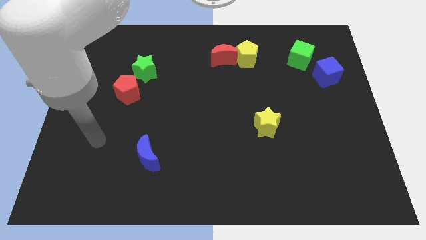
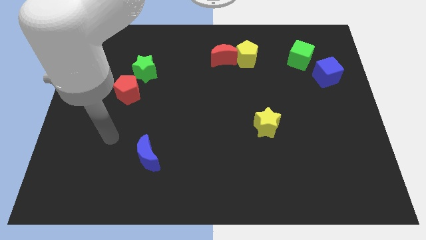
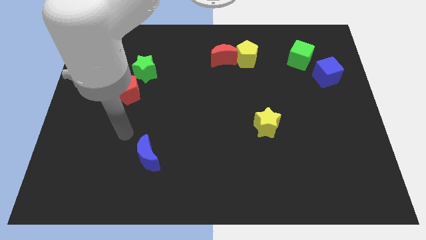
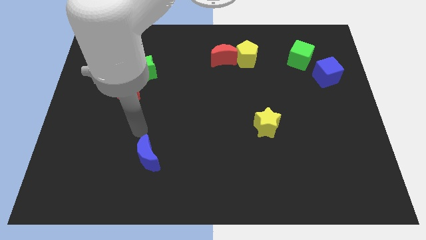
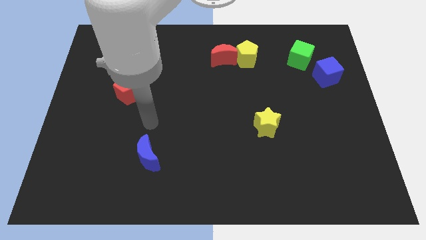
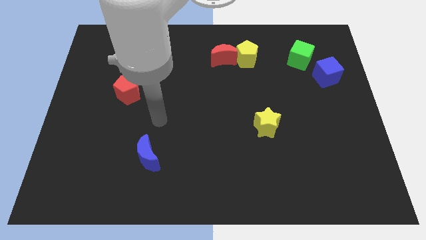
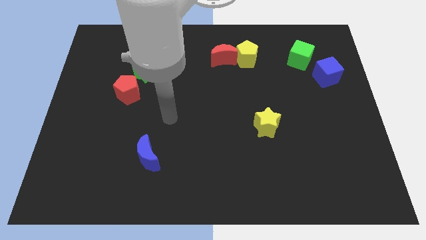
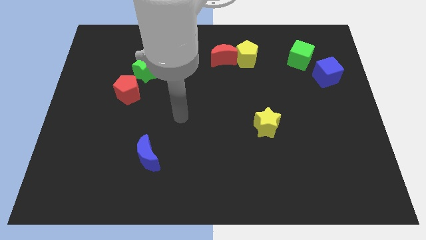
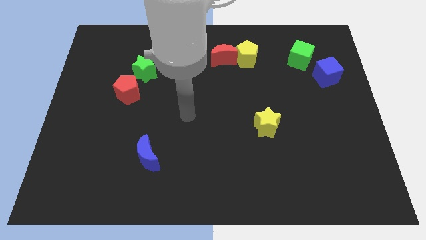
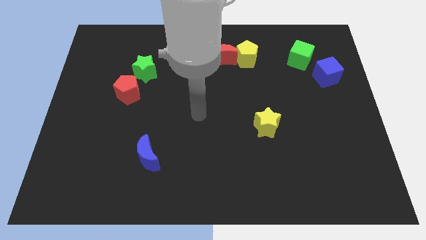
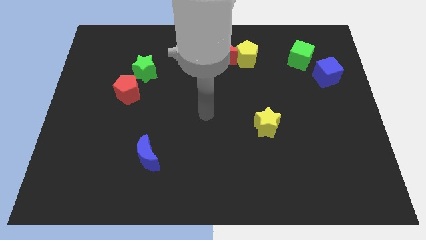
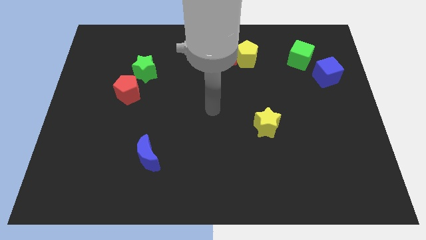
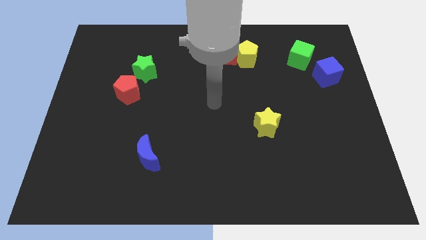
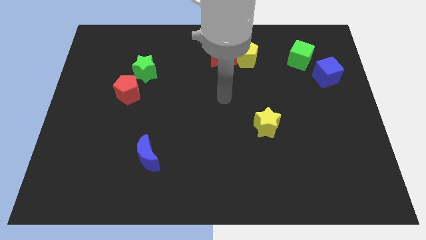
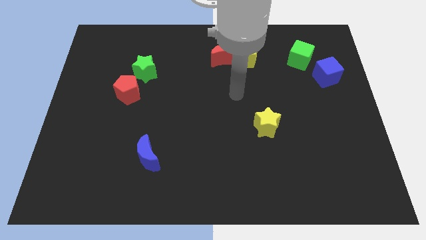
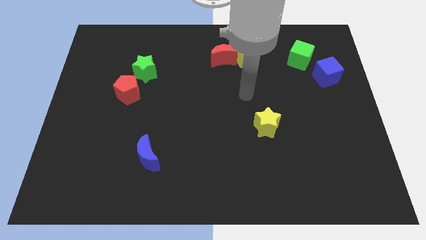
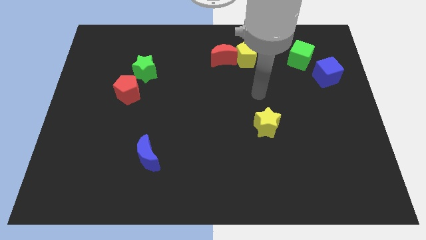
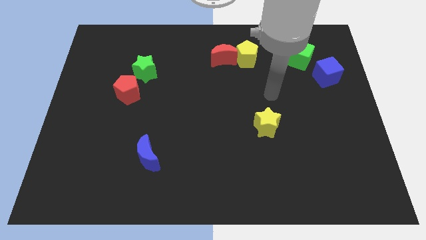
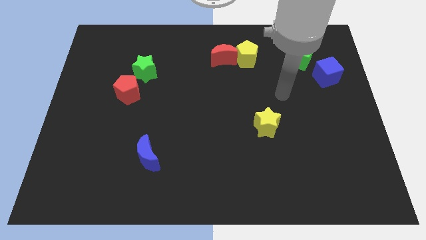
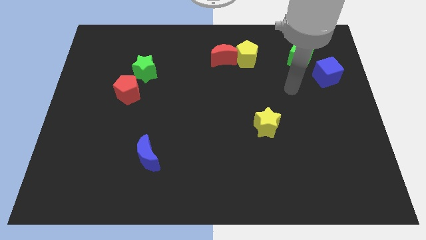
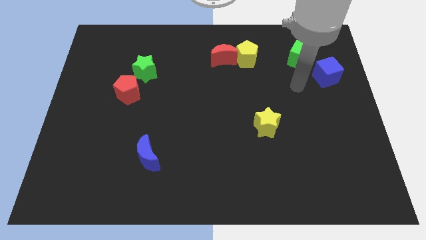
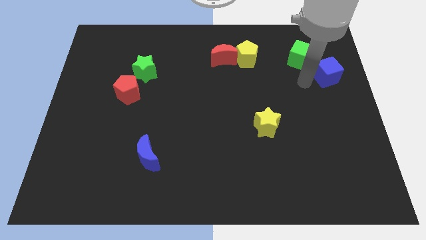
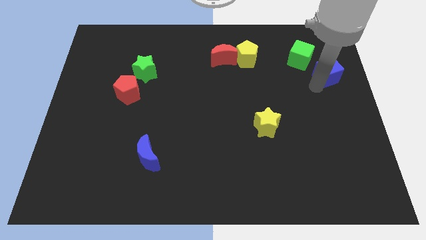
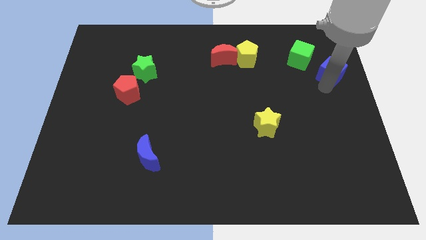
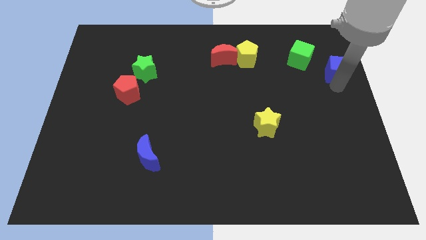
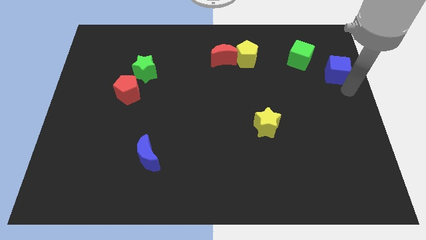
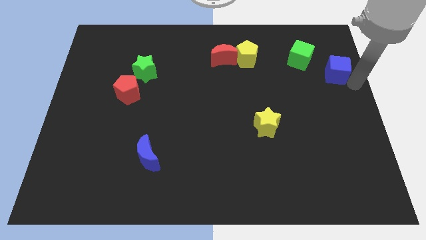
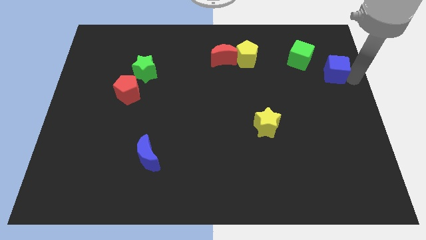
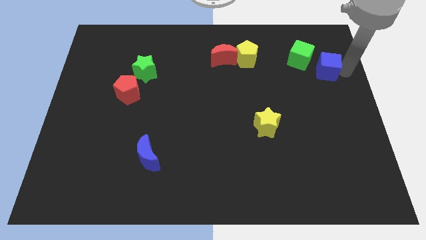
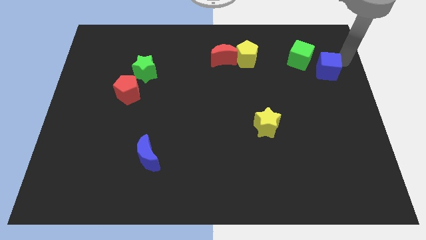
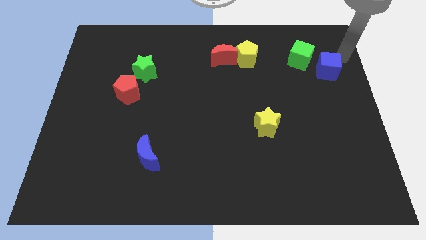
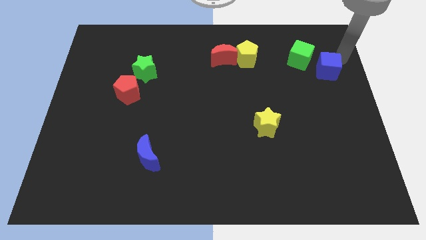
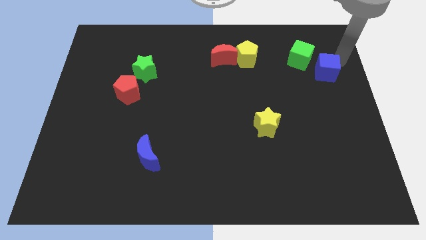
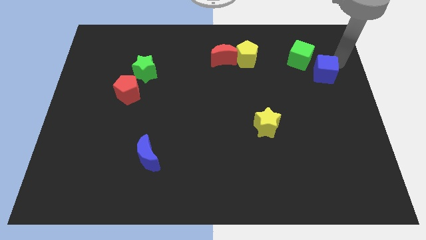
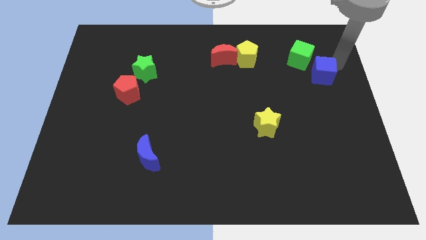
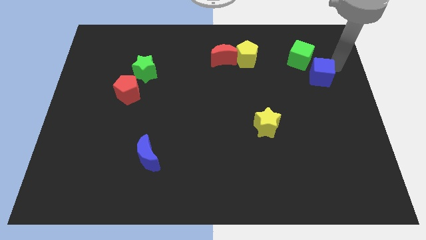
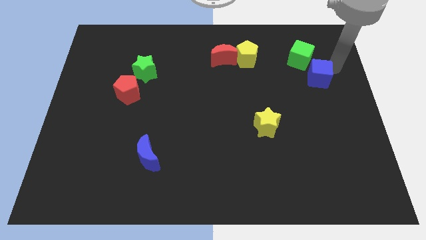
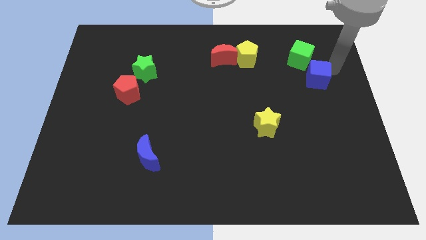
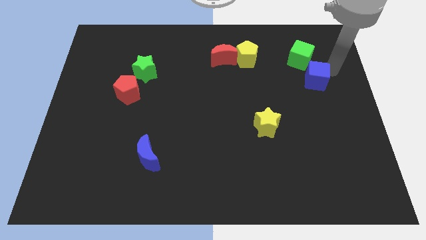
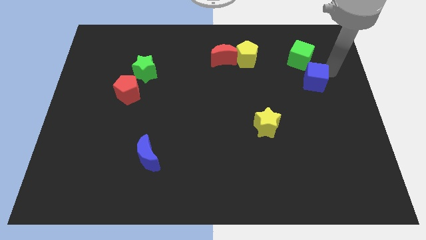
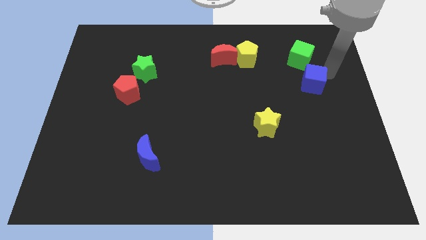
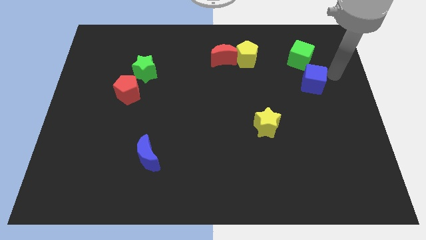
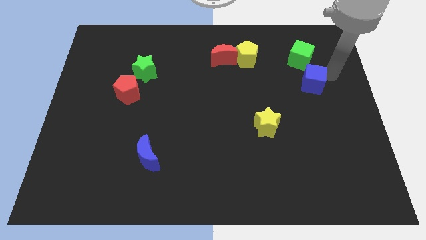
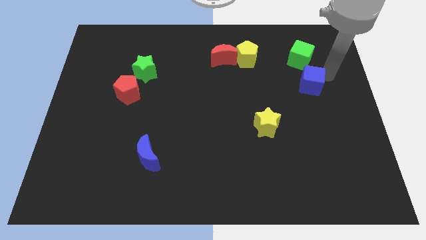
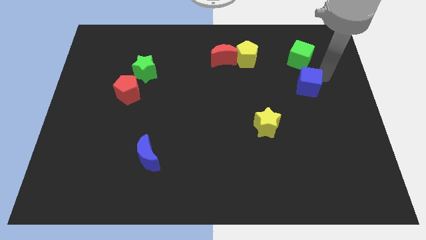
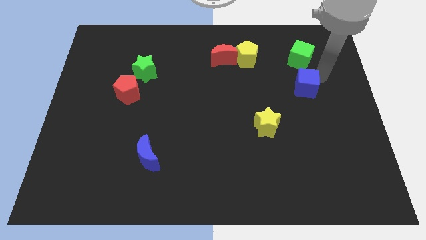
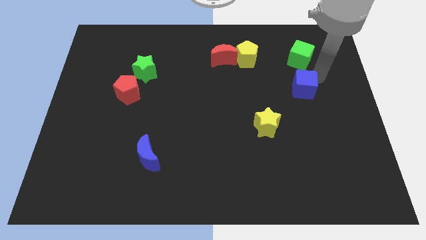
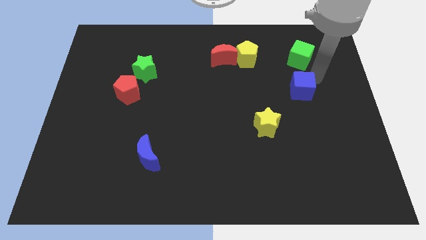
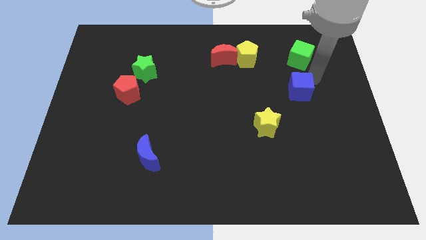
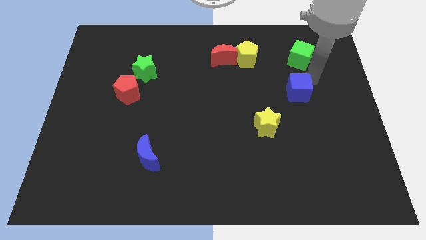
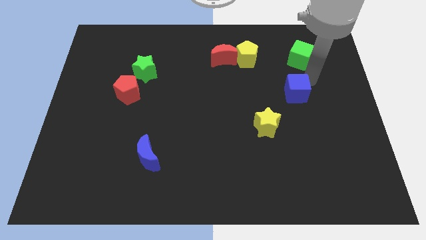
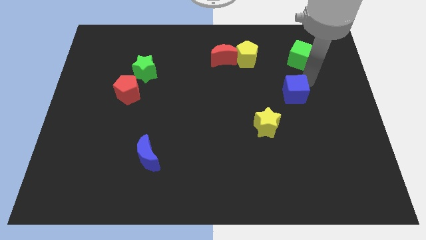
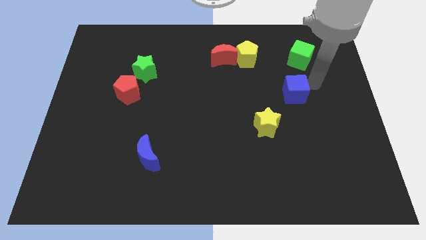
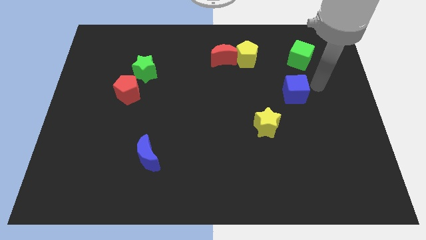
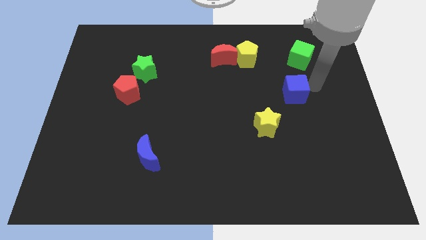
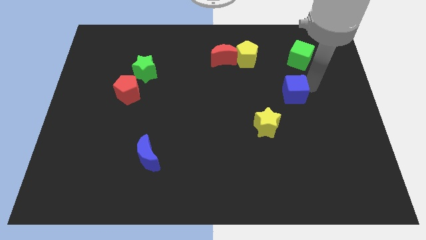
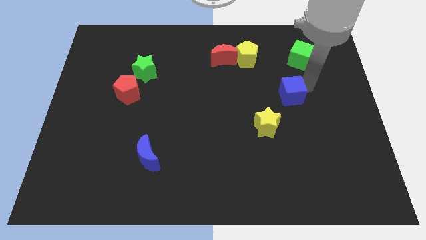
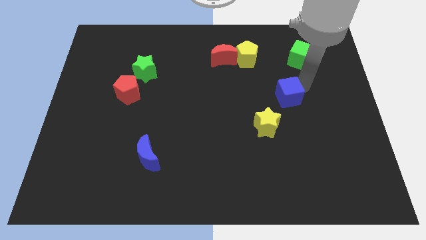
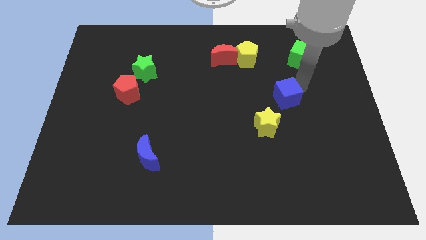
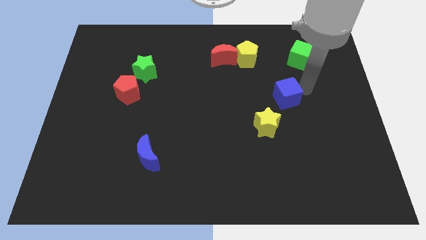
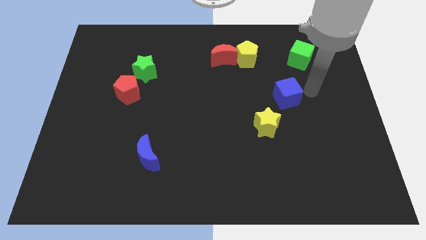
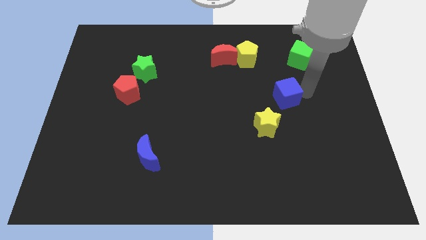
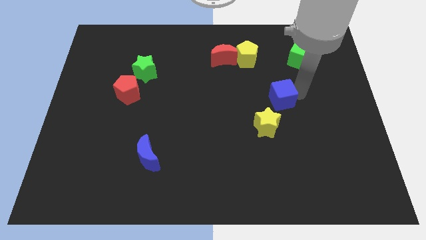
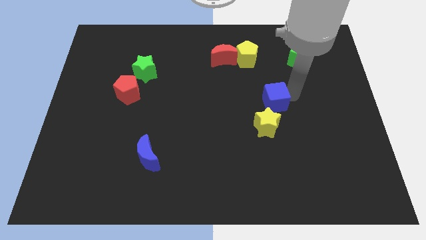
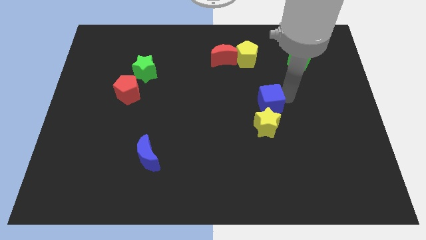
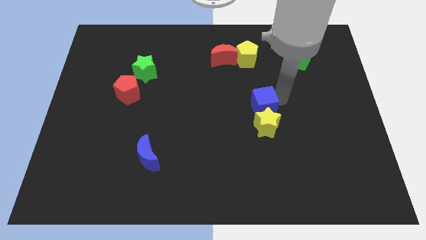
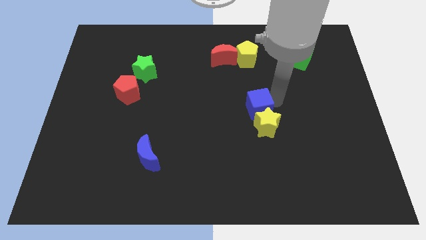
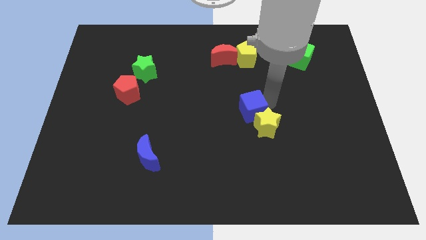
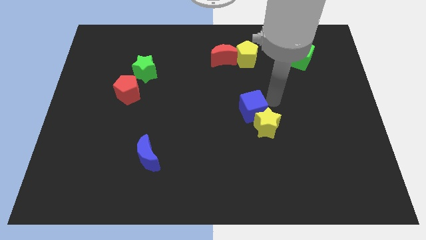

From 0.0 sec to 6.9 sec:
push the blue cube just left of the yellow star

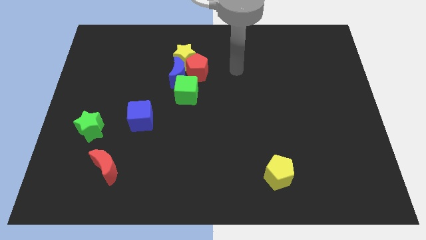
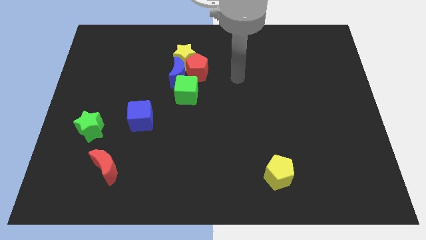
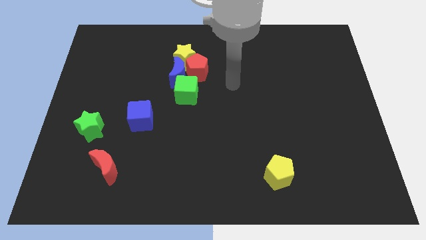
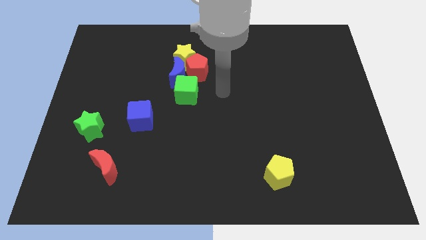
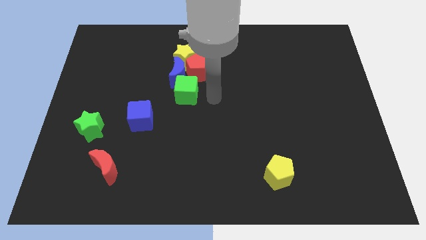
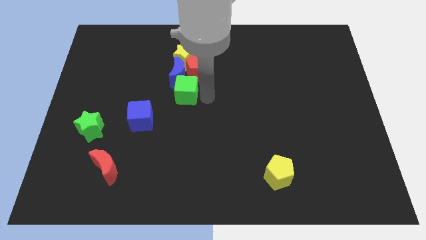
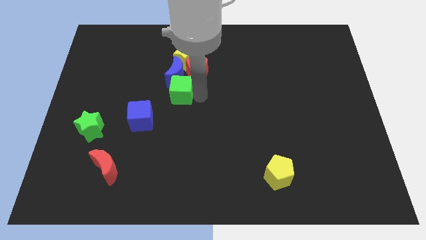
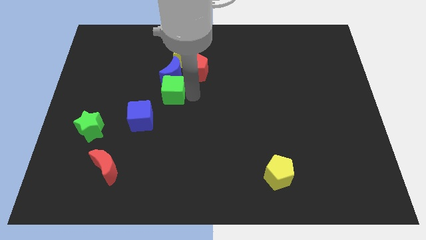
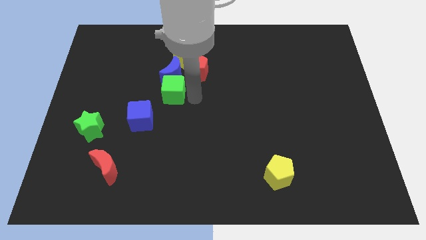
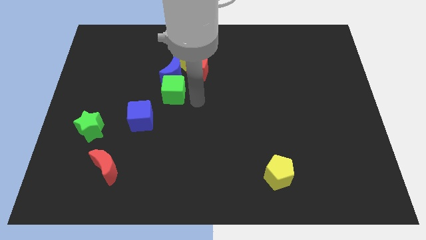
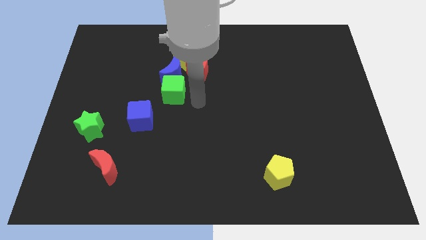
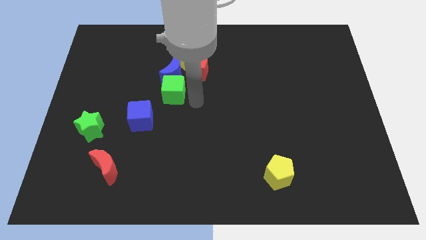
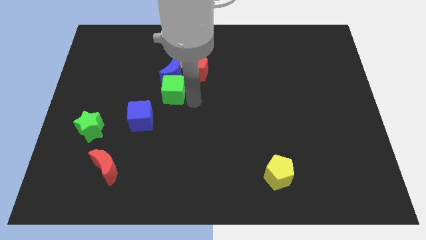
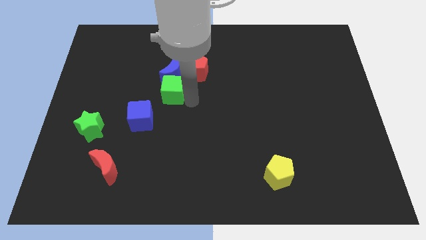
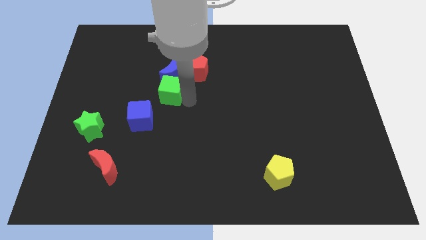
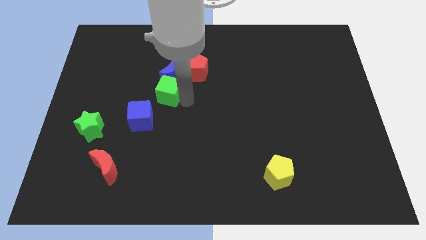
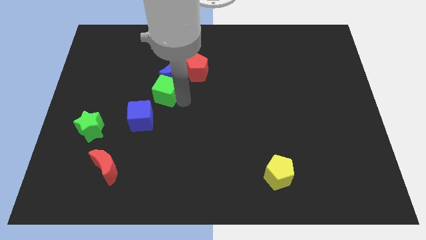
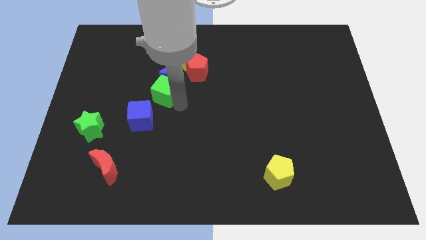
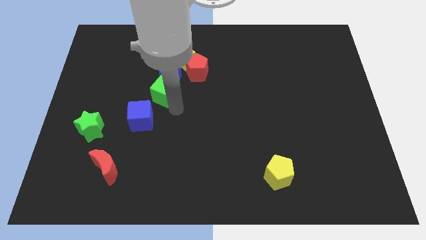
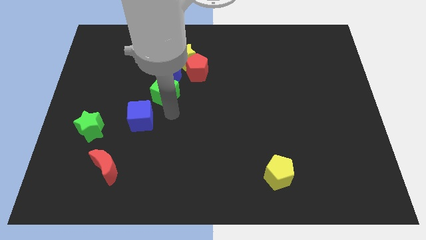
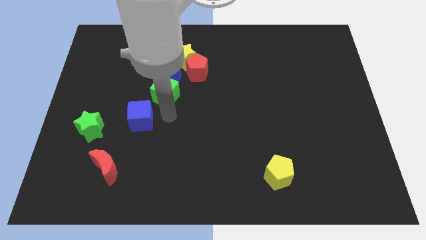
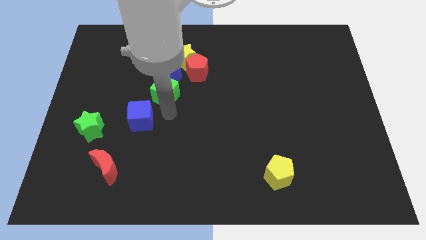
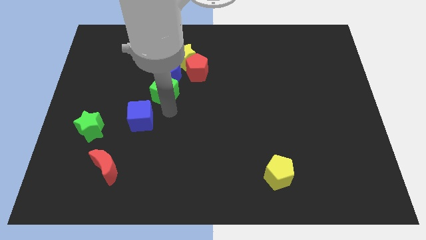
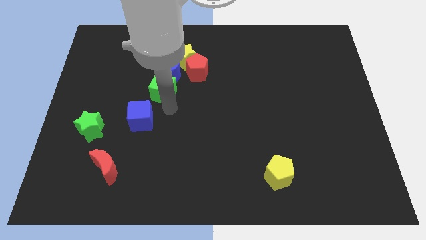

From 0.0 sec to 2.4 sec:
push the green cube to the bottom left of the yellow star
